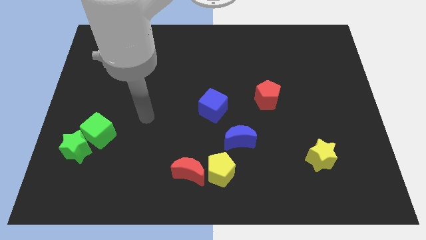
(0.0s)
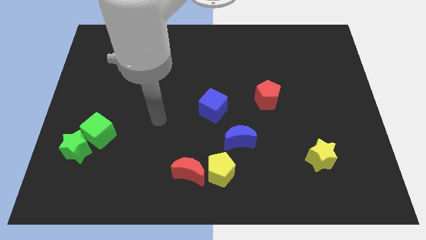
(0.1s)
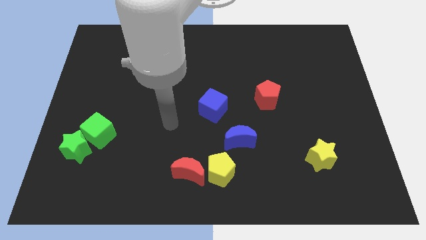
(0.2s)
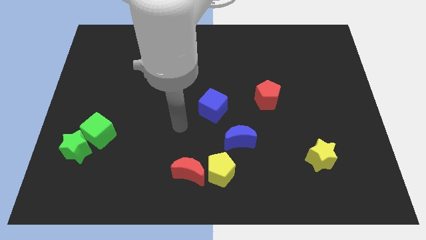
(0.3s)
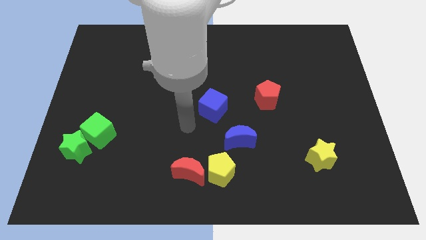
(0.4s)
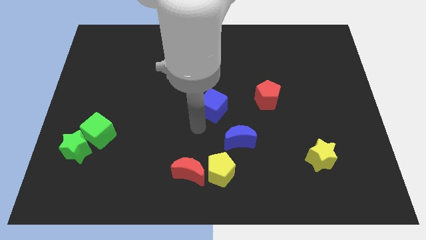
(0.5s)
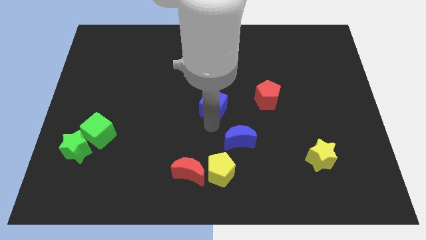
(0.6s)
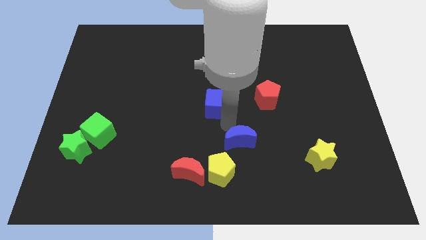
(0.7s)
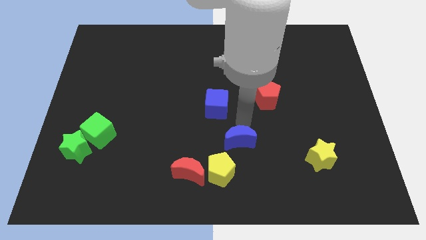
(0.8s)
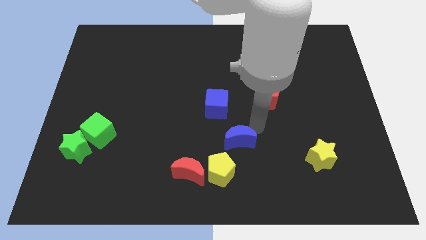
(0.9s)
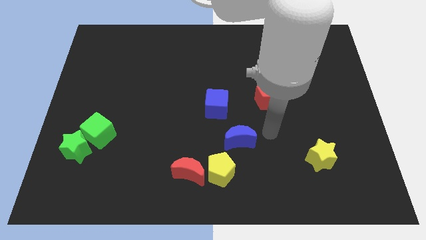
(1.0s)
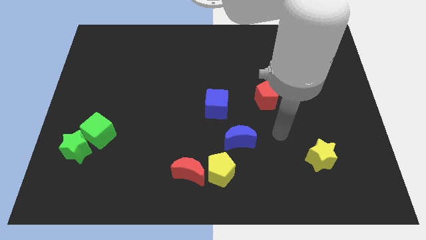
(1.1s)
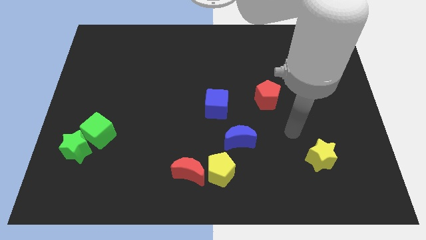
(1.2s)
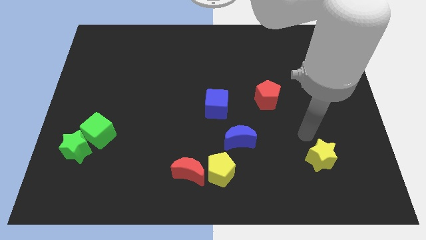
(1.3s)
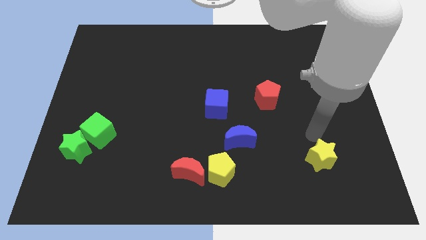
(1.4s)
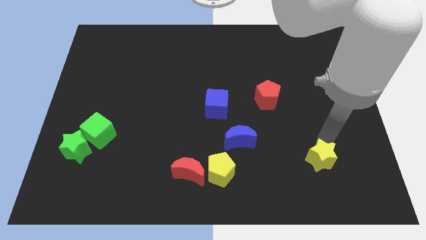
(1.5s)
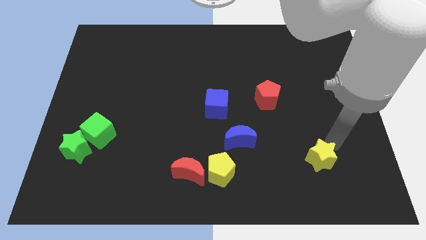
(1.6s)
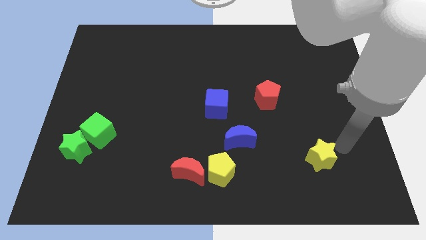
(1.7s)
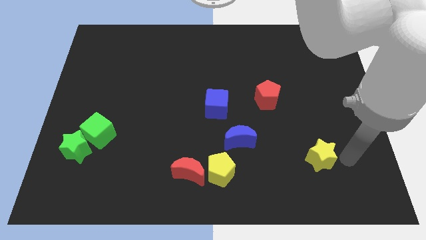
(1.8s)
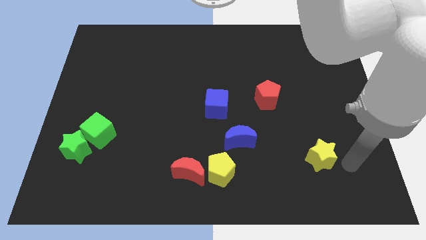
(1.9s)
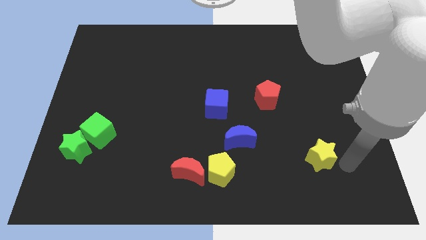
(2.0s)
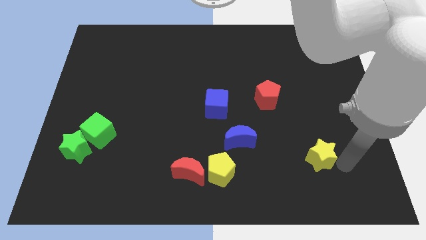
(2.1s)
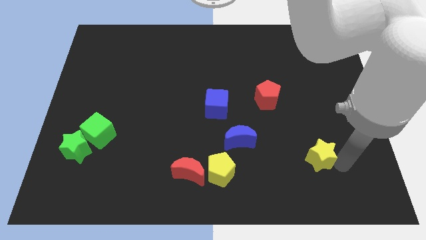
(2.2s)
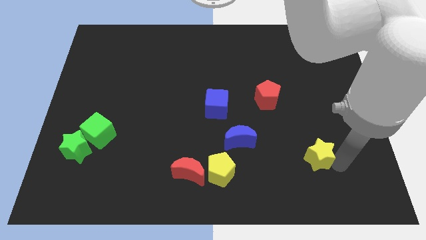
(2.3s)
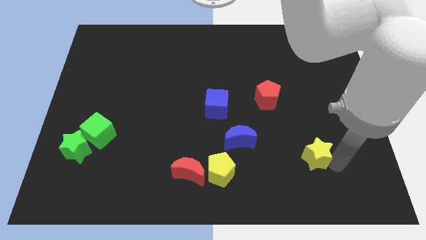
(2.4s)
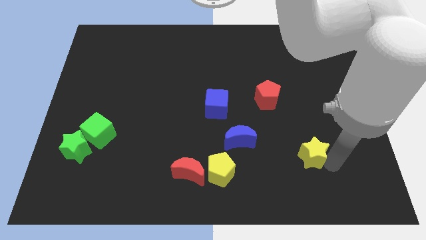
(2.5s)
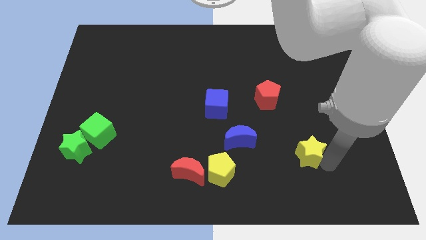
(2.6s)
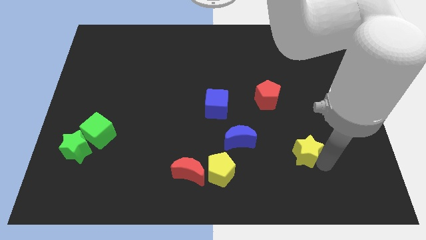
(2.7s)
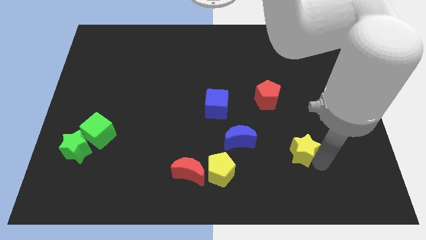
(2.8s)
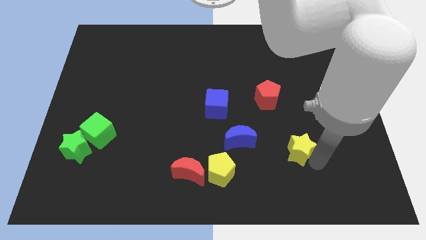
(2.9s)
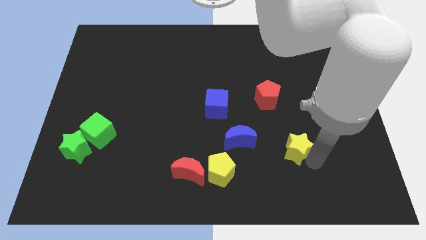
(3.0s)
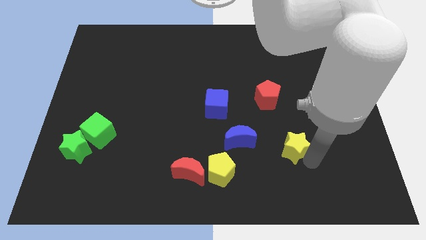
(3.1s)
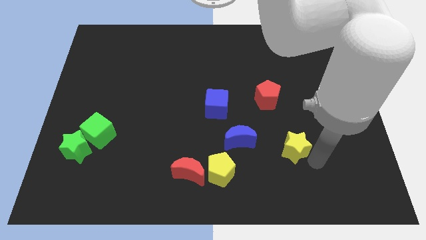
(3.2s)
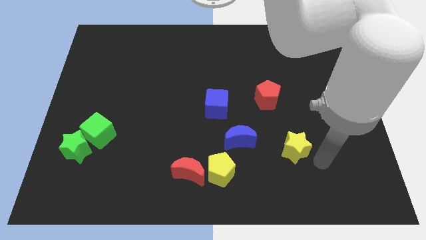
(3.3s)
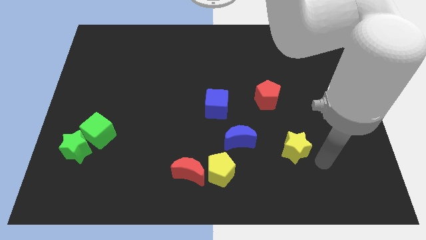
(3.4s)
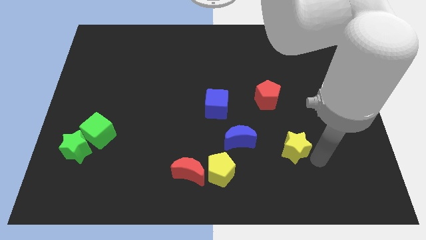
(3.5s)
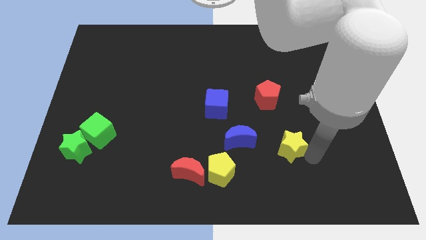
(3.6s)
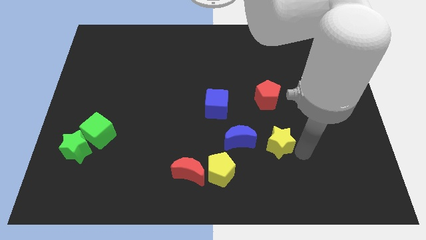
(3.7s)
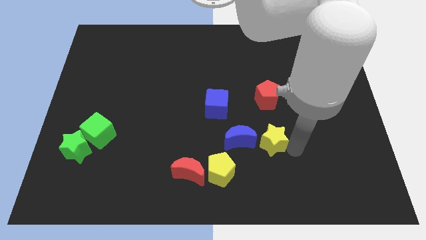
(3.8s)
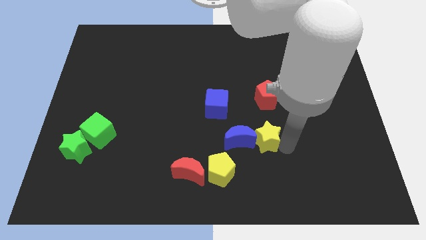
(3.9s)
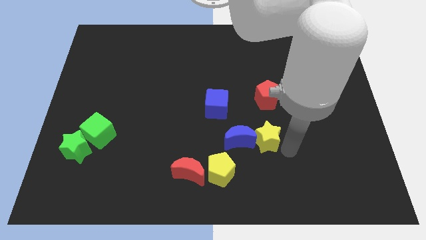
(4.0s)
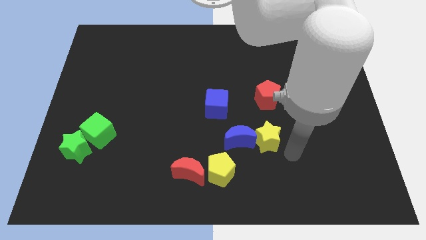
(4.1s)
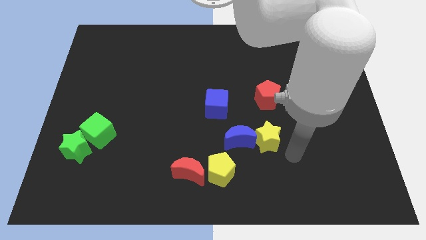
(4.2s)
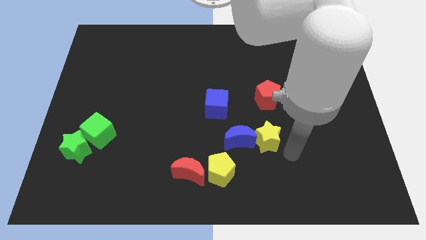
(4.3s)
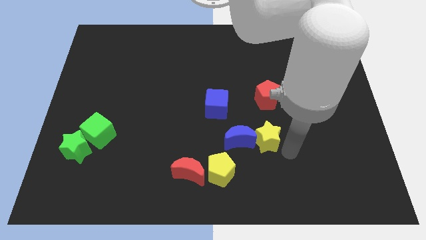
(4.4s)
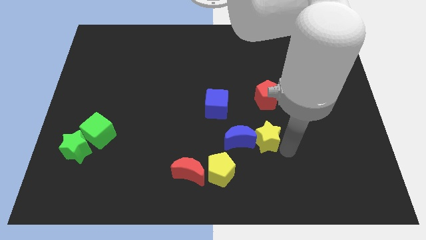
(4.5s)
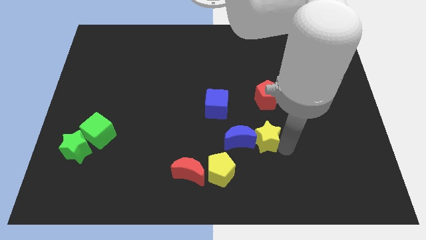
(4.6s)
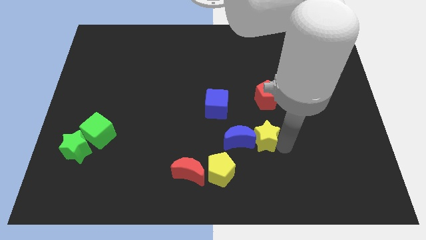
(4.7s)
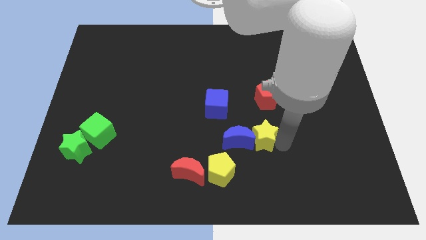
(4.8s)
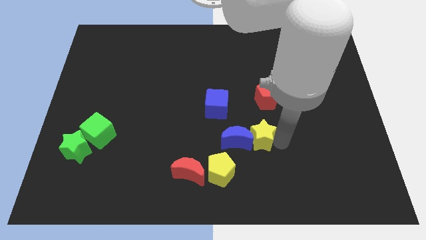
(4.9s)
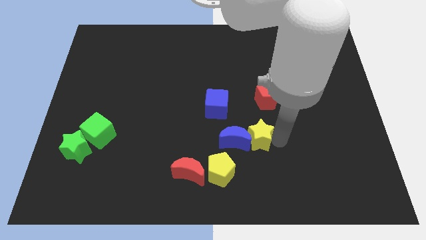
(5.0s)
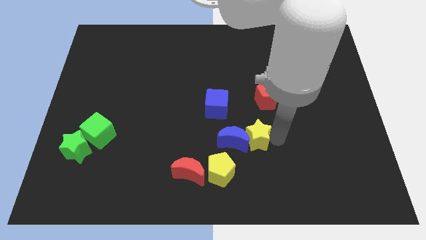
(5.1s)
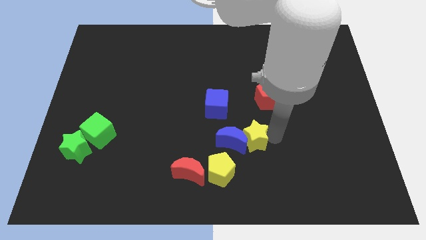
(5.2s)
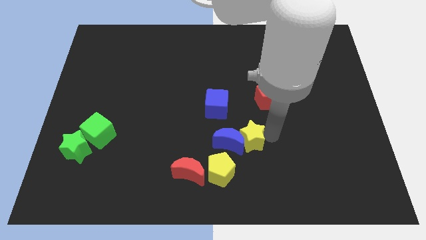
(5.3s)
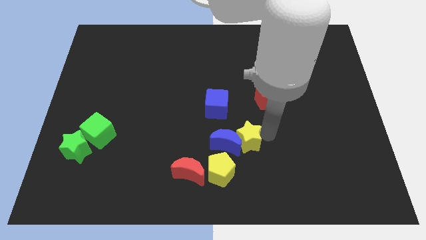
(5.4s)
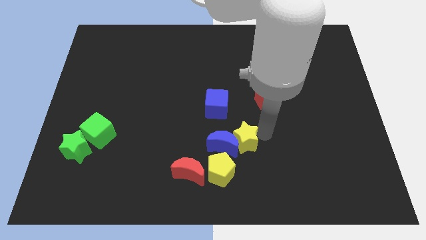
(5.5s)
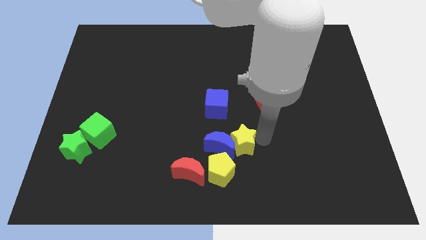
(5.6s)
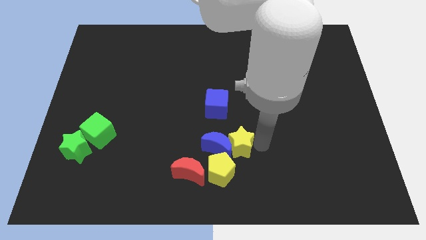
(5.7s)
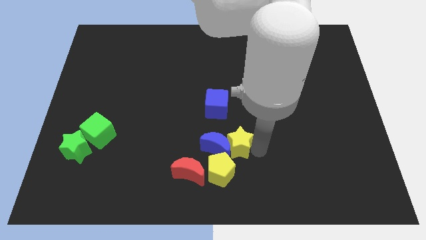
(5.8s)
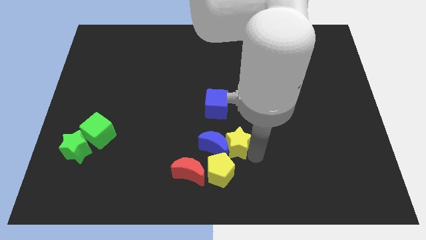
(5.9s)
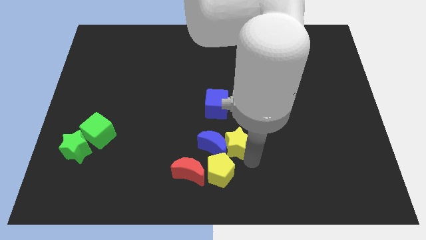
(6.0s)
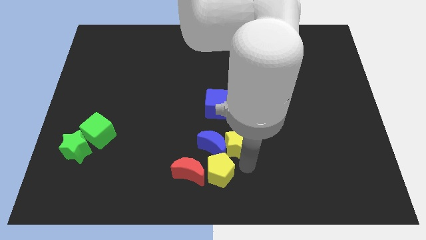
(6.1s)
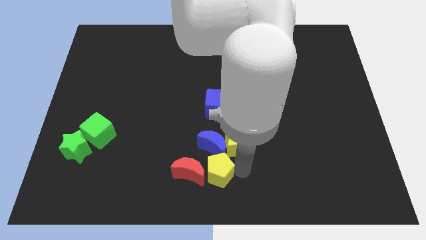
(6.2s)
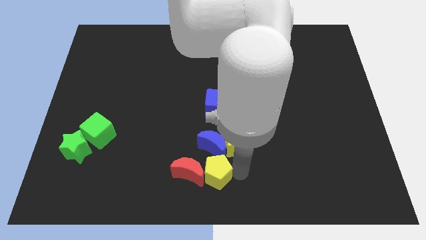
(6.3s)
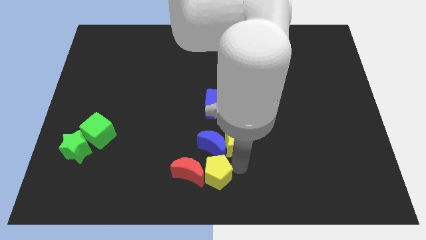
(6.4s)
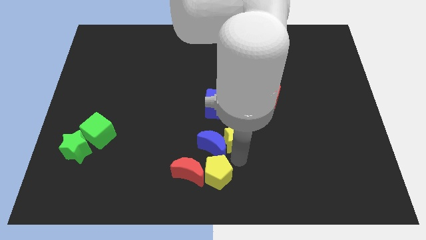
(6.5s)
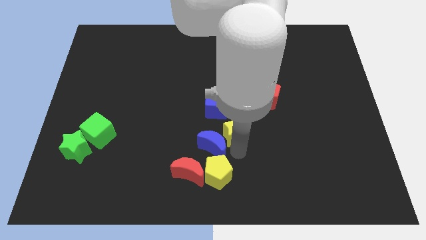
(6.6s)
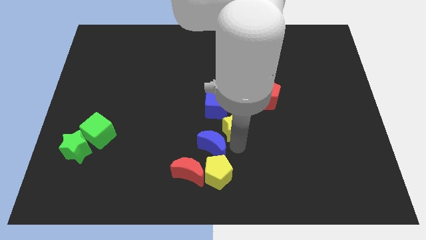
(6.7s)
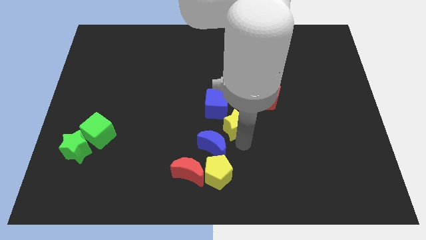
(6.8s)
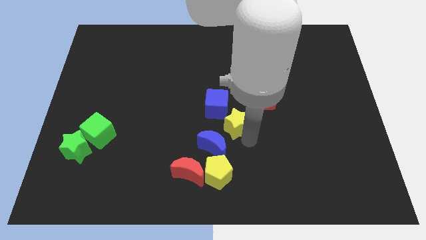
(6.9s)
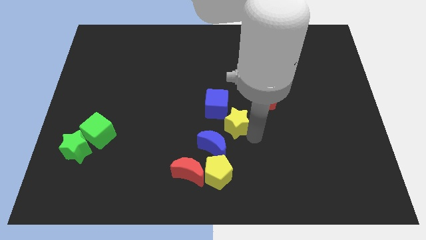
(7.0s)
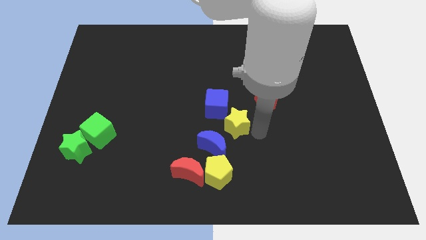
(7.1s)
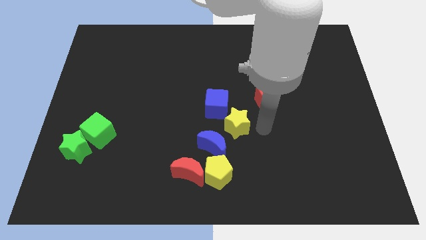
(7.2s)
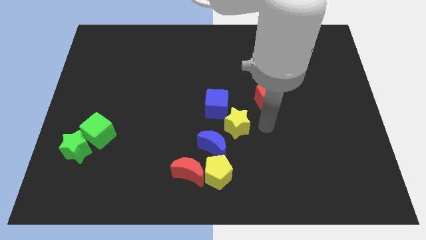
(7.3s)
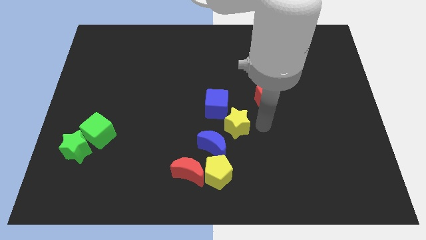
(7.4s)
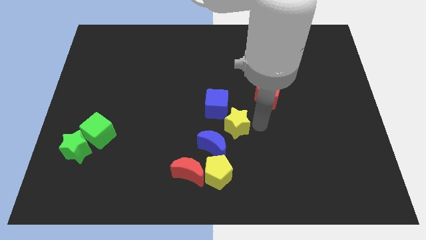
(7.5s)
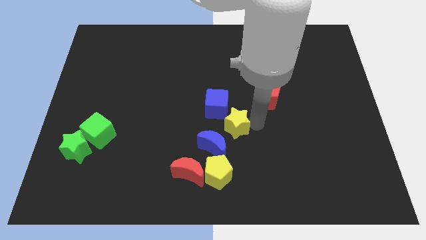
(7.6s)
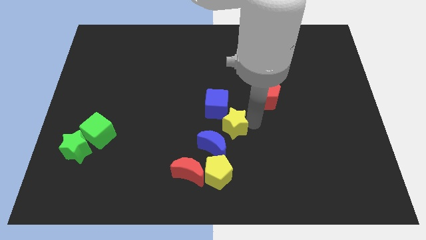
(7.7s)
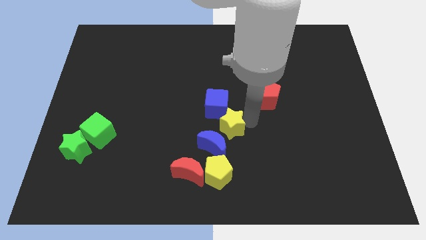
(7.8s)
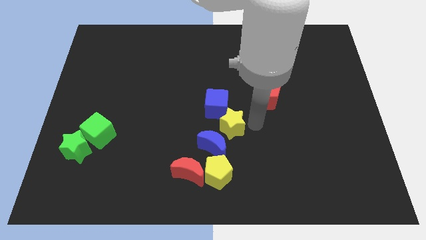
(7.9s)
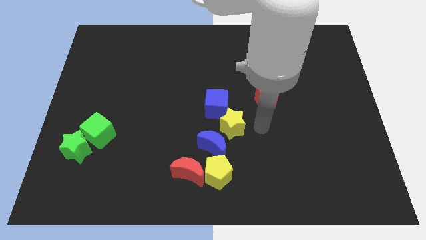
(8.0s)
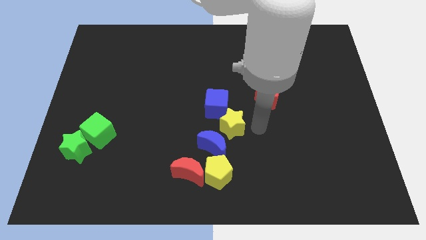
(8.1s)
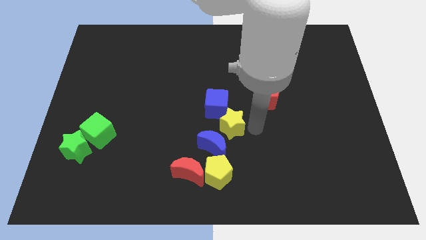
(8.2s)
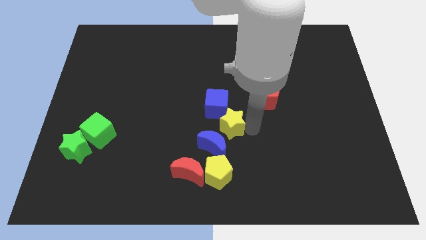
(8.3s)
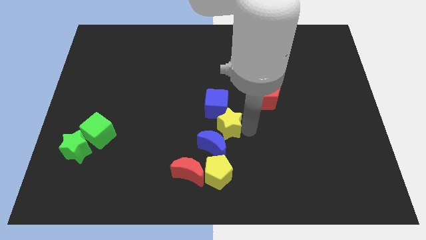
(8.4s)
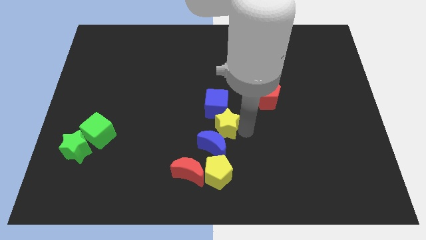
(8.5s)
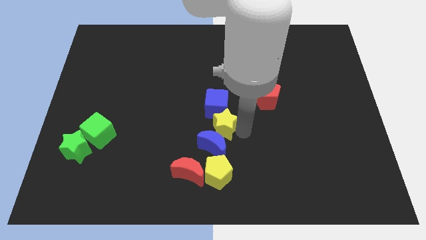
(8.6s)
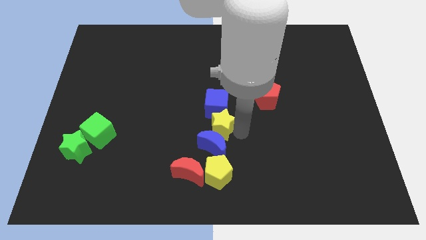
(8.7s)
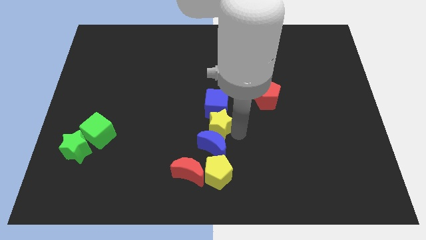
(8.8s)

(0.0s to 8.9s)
move the yellow star to the bottom left of the blue cube
